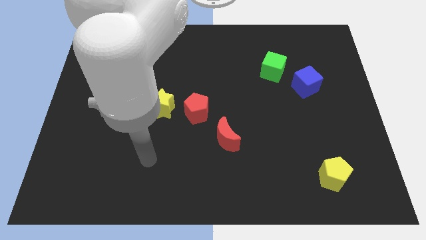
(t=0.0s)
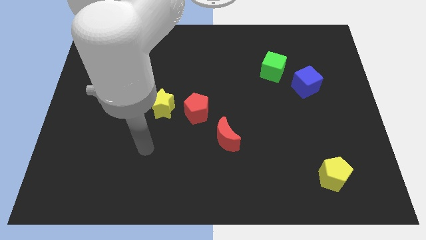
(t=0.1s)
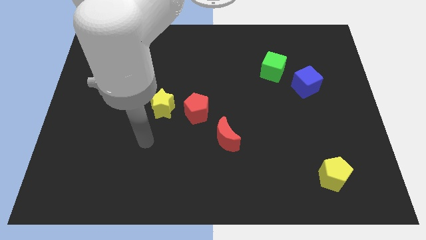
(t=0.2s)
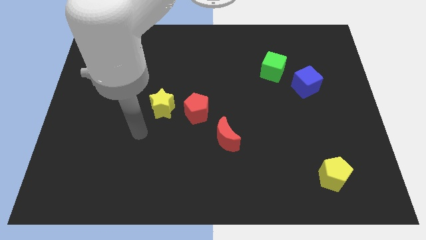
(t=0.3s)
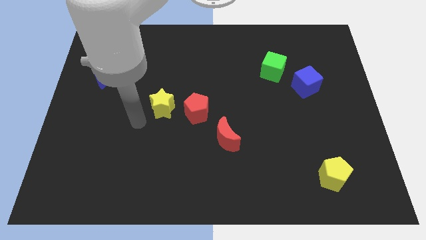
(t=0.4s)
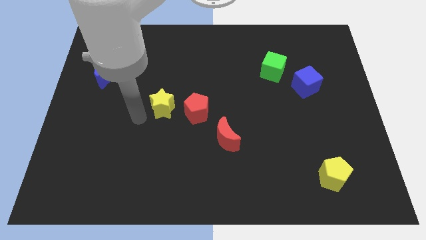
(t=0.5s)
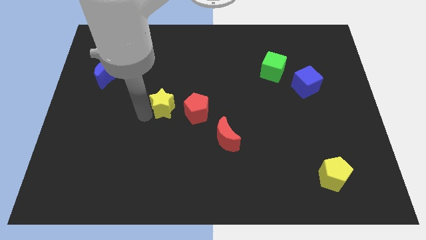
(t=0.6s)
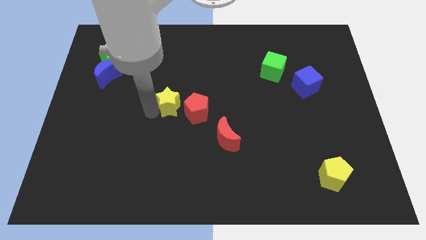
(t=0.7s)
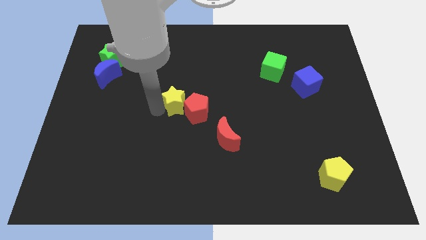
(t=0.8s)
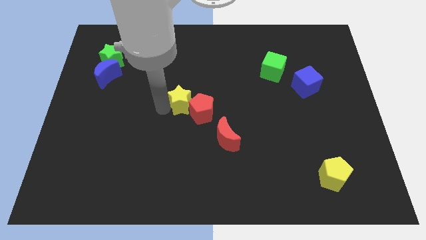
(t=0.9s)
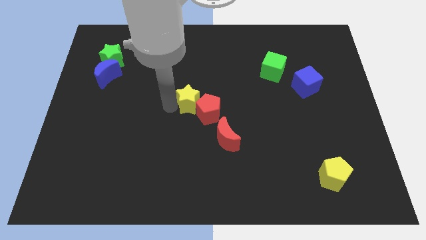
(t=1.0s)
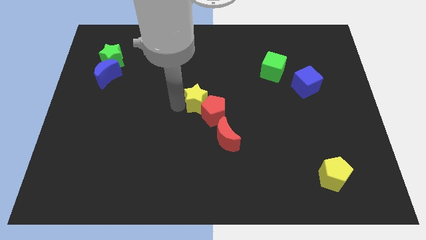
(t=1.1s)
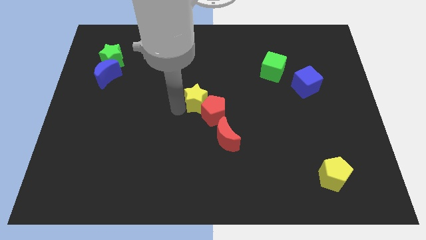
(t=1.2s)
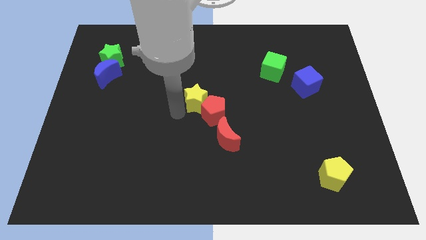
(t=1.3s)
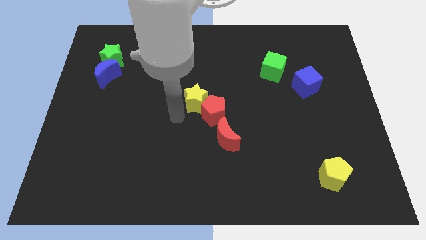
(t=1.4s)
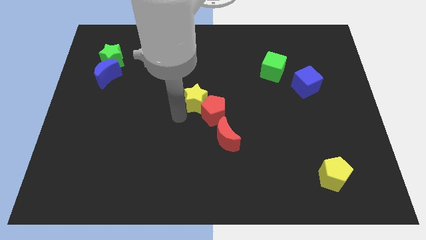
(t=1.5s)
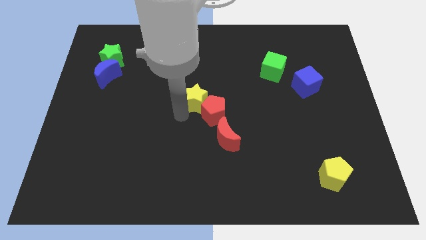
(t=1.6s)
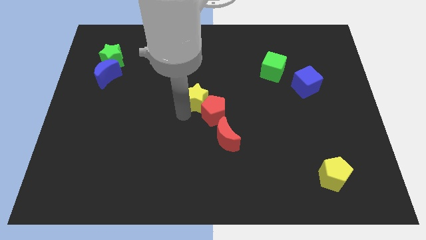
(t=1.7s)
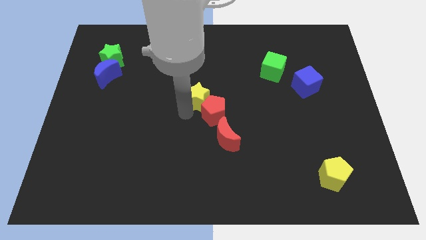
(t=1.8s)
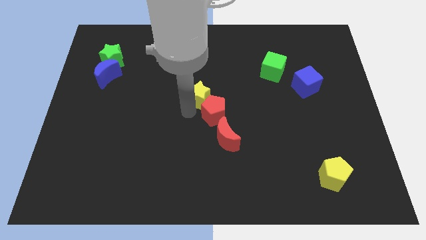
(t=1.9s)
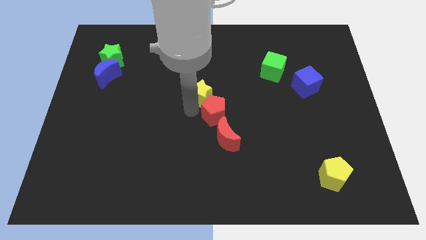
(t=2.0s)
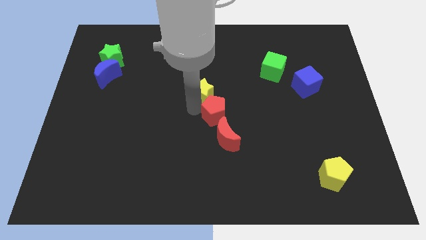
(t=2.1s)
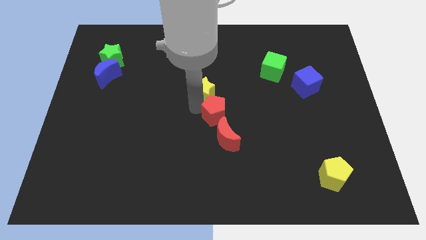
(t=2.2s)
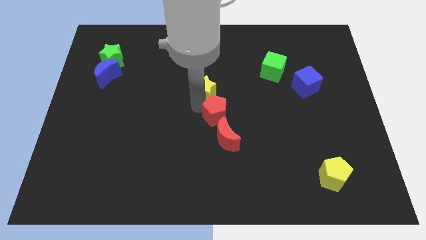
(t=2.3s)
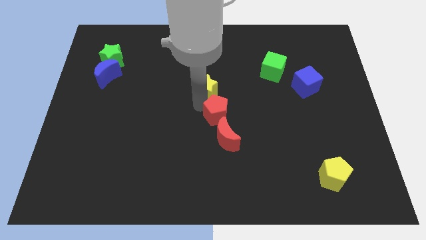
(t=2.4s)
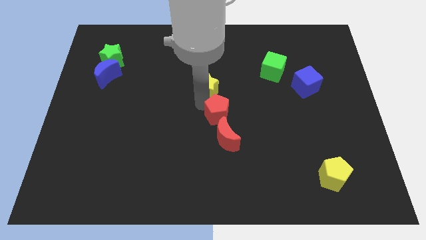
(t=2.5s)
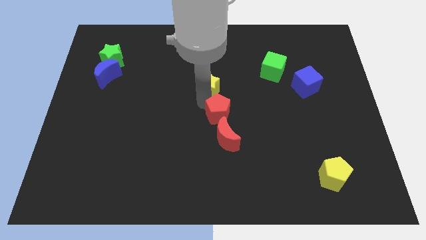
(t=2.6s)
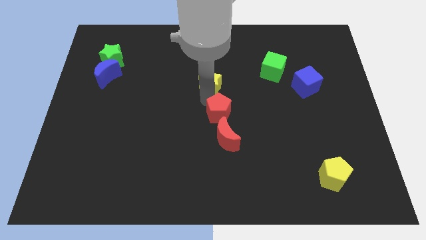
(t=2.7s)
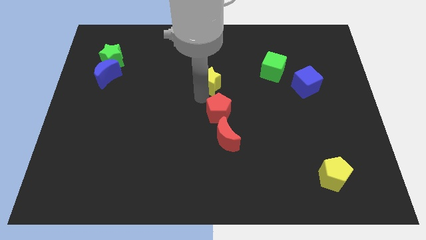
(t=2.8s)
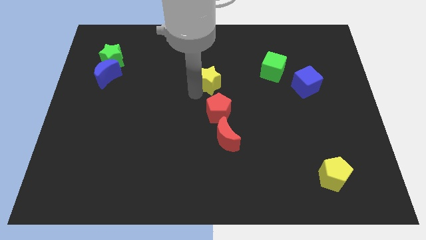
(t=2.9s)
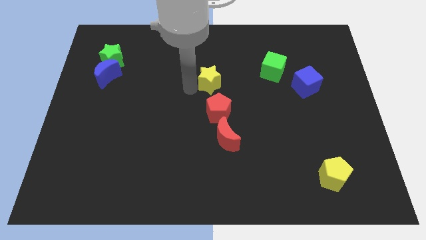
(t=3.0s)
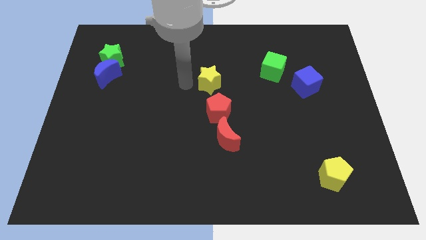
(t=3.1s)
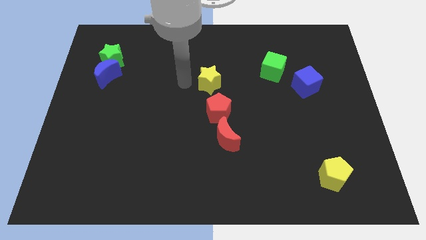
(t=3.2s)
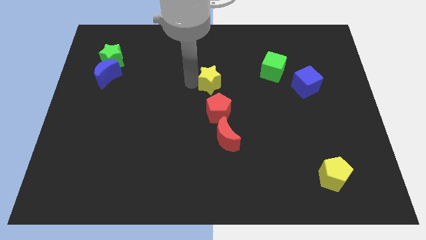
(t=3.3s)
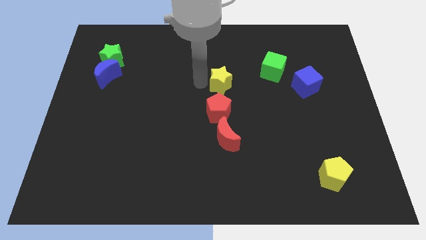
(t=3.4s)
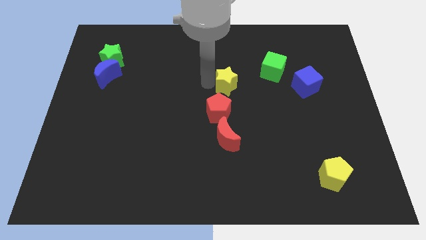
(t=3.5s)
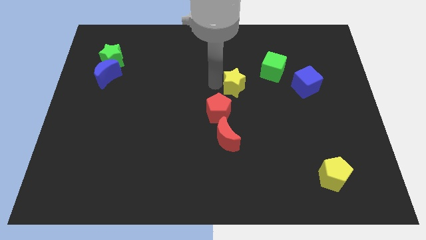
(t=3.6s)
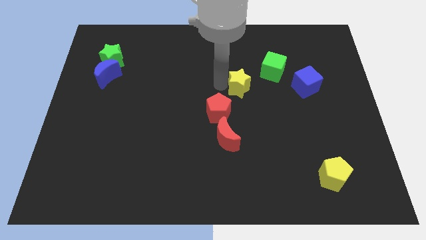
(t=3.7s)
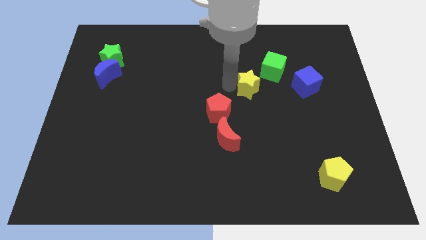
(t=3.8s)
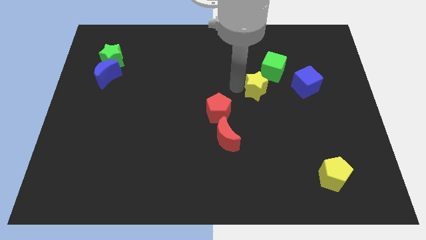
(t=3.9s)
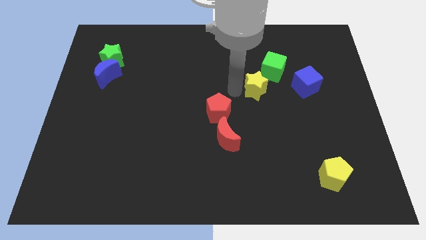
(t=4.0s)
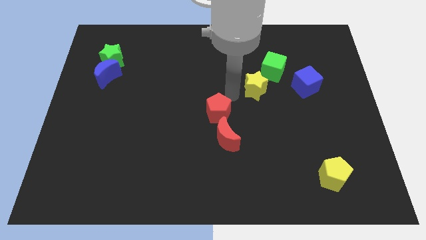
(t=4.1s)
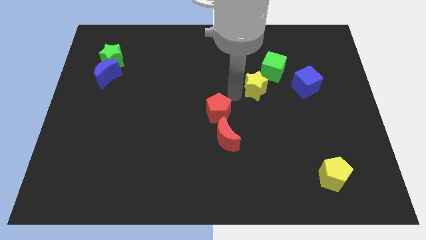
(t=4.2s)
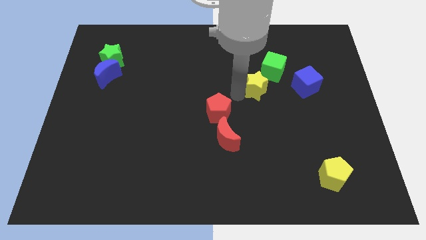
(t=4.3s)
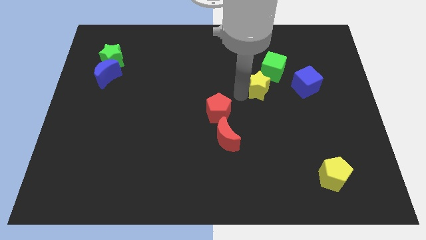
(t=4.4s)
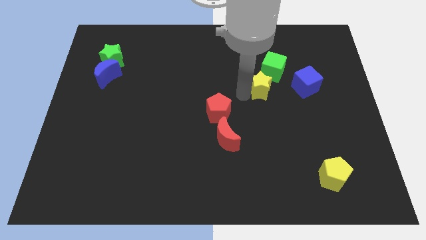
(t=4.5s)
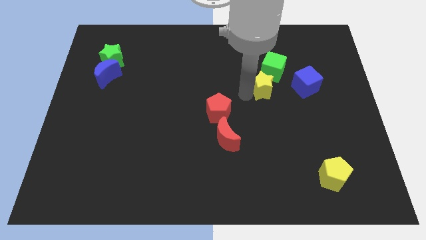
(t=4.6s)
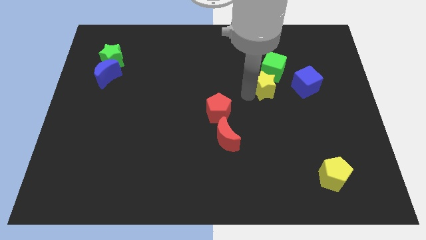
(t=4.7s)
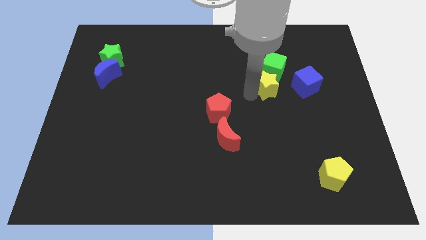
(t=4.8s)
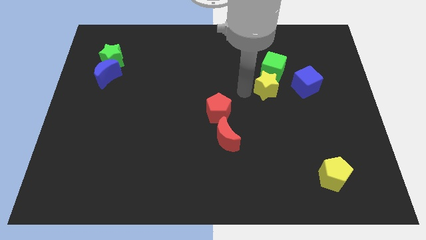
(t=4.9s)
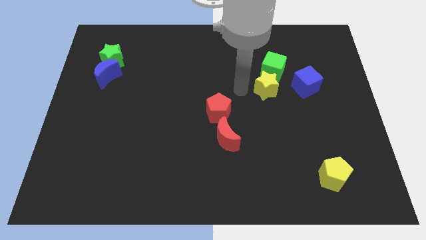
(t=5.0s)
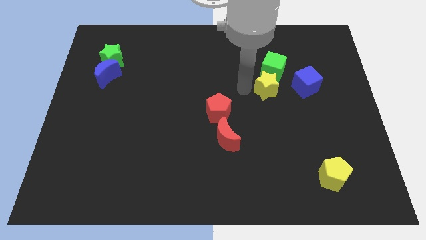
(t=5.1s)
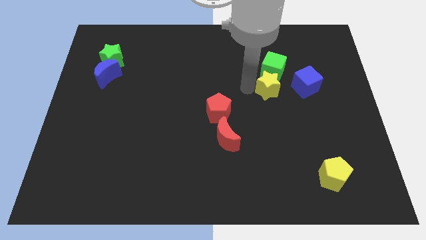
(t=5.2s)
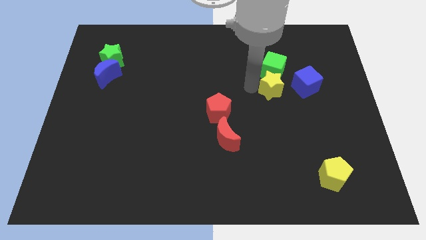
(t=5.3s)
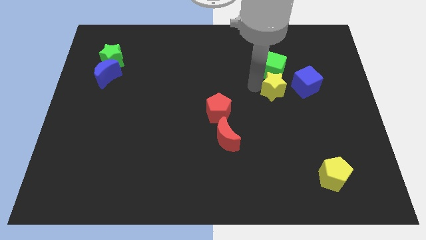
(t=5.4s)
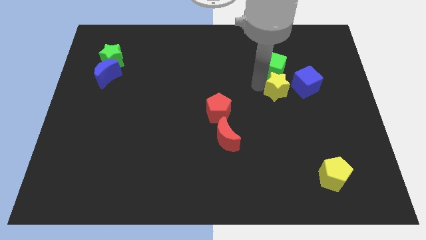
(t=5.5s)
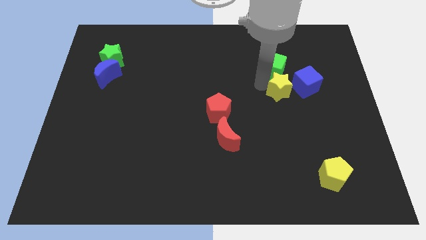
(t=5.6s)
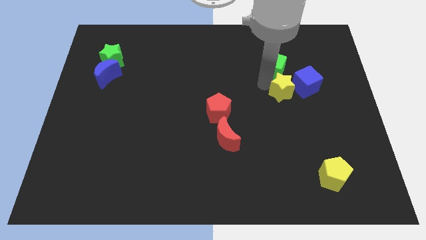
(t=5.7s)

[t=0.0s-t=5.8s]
move the yellow star towards the blue cube
